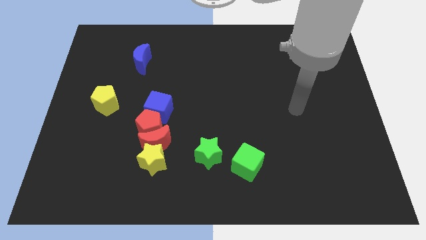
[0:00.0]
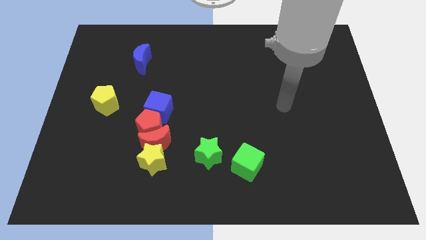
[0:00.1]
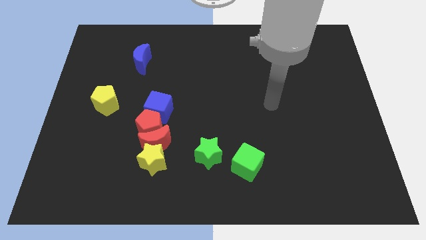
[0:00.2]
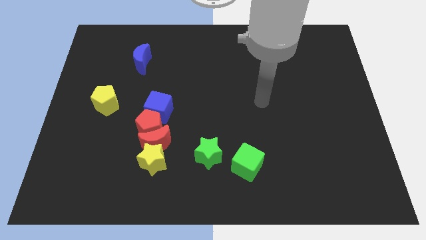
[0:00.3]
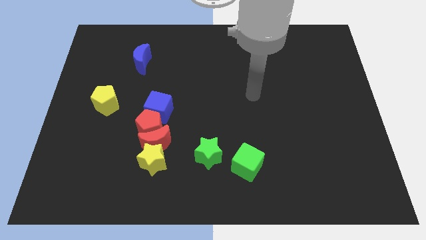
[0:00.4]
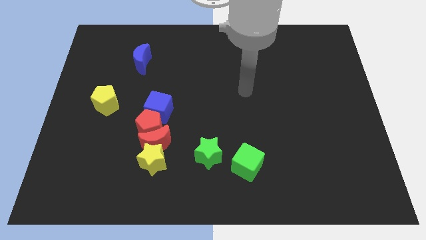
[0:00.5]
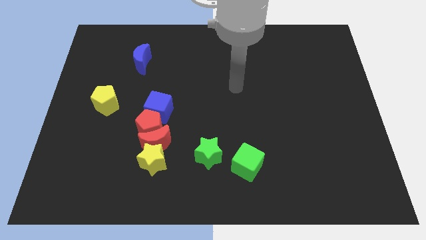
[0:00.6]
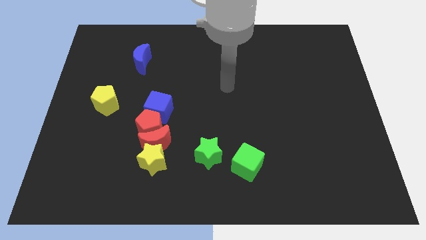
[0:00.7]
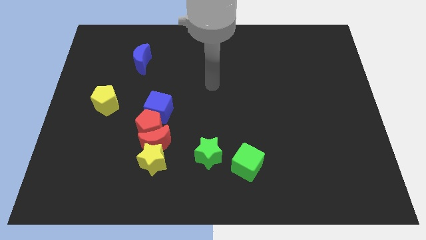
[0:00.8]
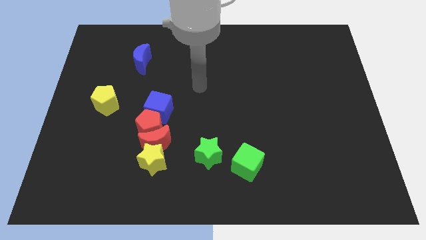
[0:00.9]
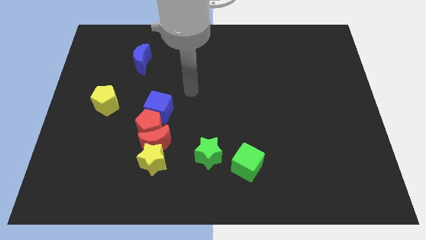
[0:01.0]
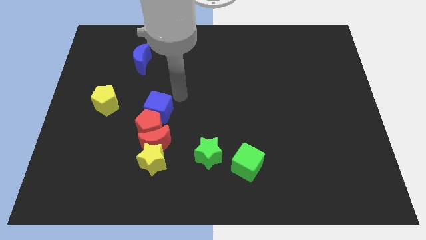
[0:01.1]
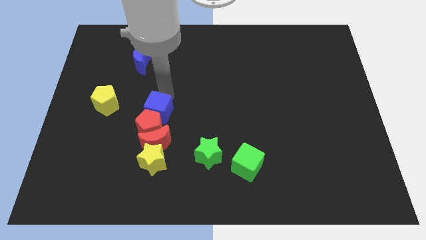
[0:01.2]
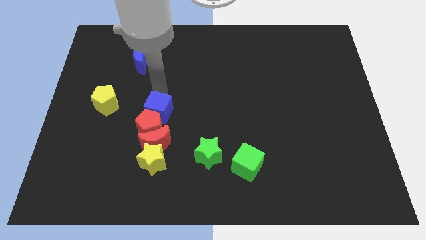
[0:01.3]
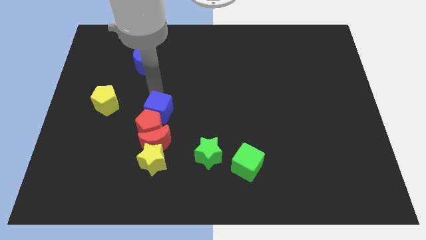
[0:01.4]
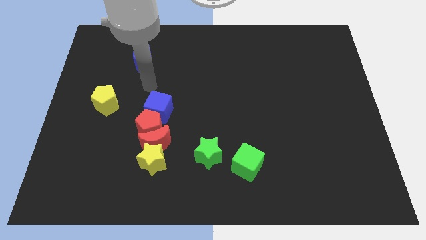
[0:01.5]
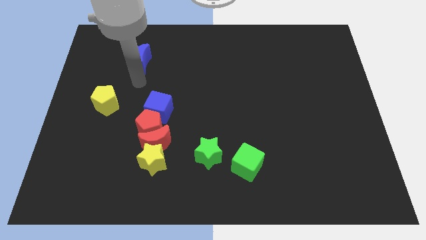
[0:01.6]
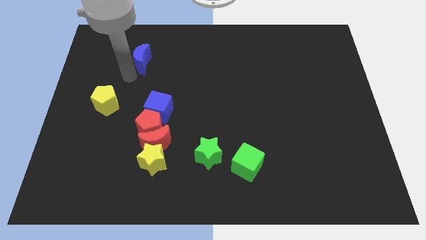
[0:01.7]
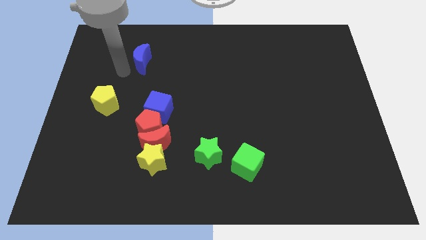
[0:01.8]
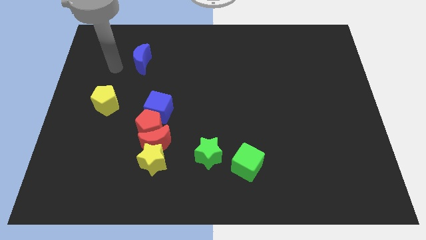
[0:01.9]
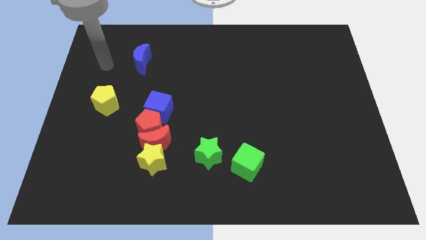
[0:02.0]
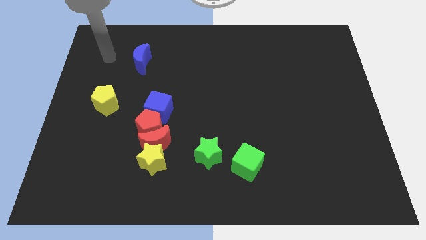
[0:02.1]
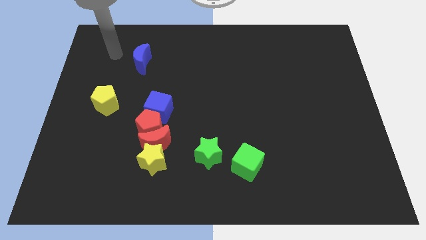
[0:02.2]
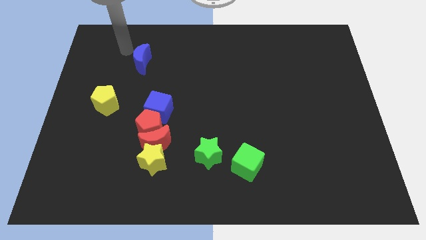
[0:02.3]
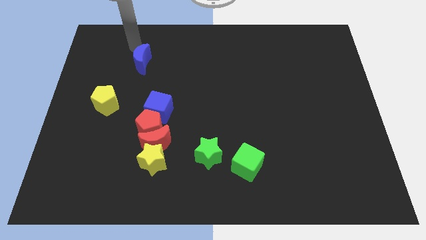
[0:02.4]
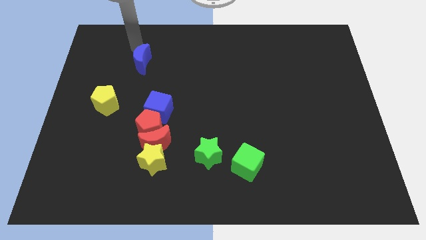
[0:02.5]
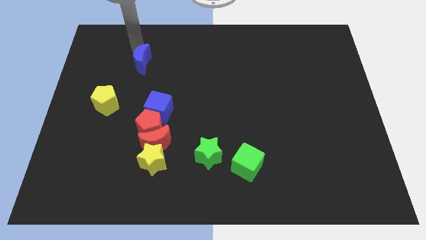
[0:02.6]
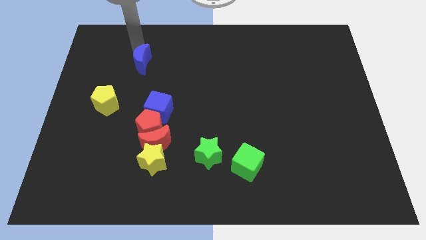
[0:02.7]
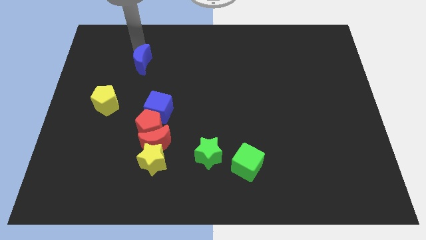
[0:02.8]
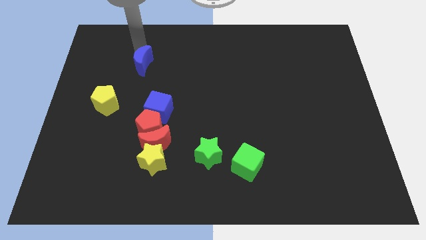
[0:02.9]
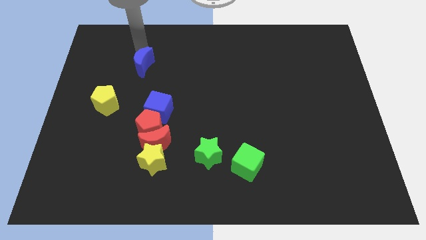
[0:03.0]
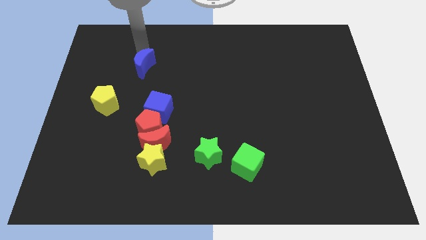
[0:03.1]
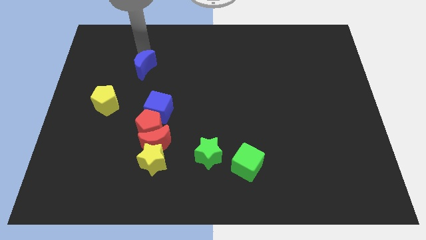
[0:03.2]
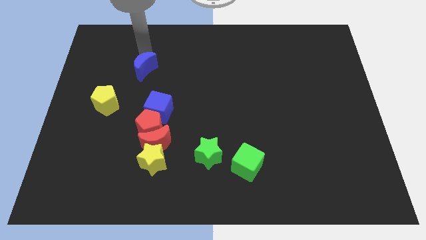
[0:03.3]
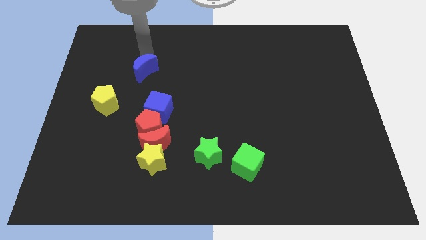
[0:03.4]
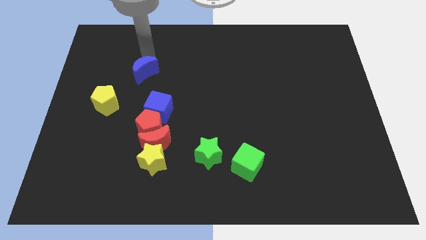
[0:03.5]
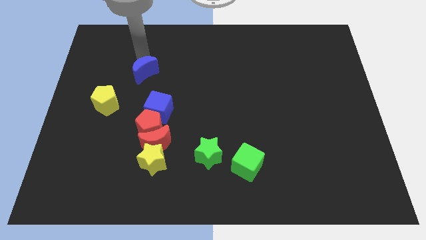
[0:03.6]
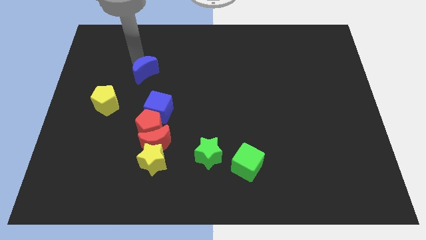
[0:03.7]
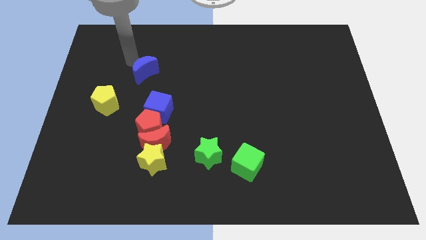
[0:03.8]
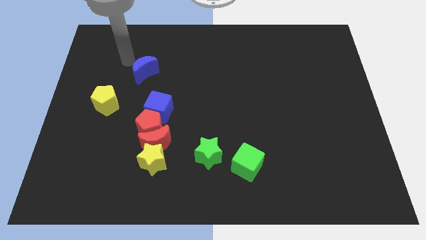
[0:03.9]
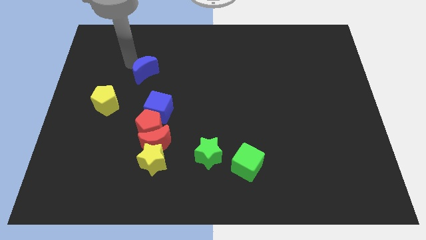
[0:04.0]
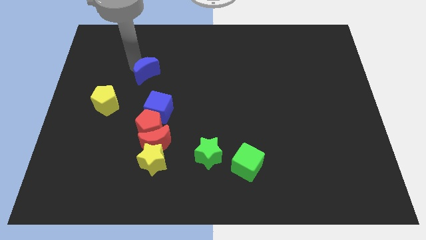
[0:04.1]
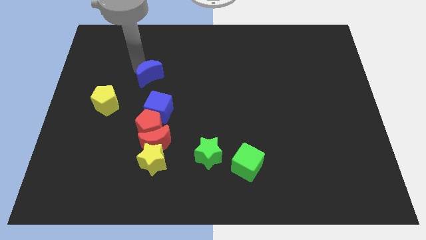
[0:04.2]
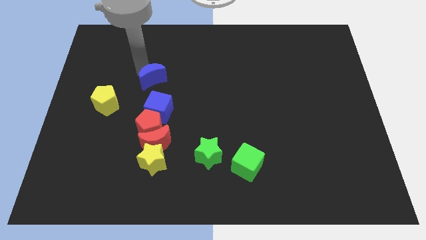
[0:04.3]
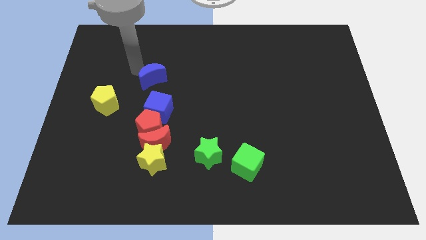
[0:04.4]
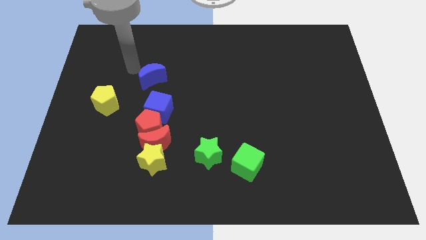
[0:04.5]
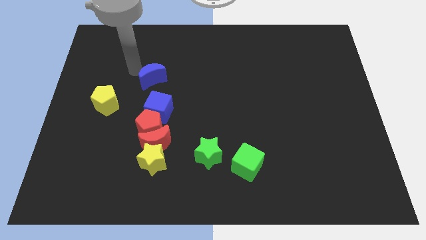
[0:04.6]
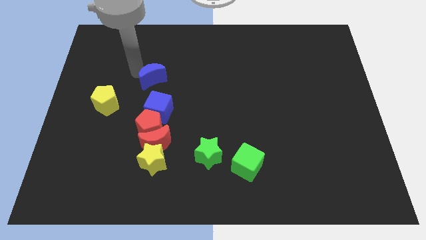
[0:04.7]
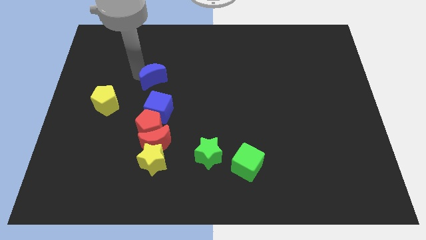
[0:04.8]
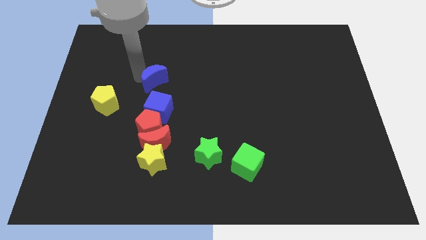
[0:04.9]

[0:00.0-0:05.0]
push the blue moon a little bit down and to the right

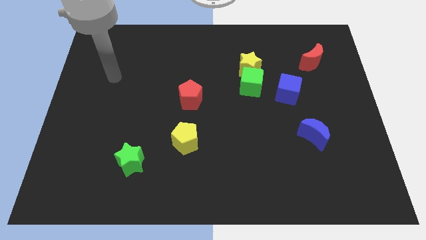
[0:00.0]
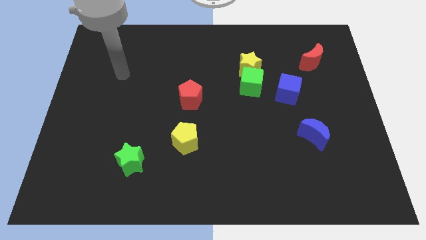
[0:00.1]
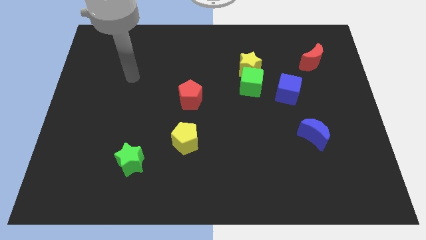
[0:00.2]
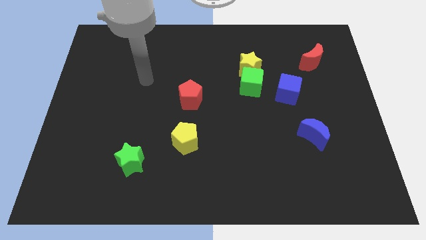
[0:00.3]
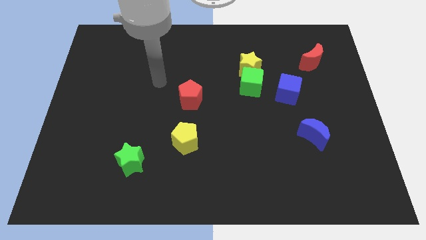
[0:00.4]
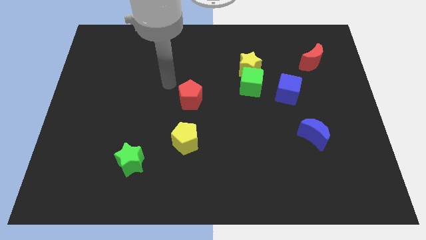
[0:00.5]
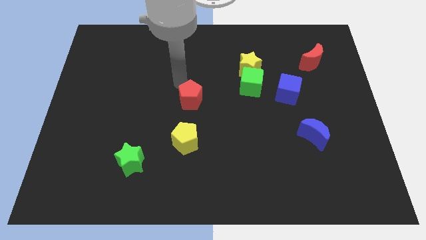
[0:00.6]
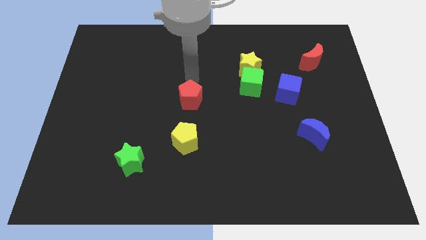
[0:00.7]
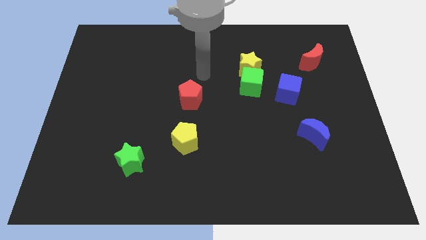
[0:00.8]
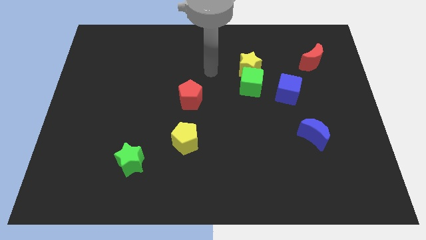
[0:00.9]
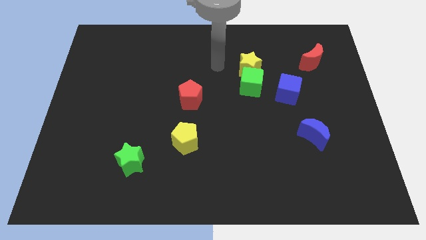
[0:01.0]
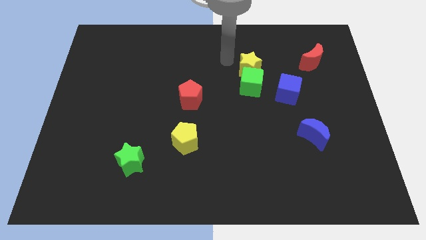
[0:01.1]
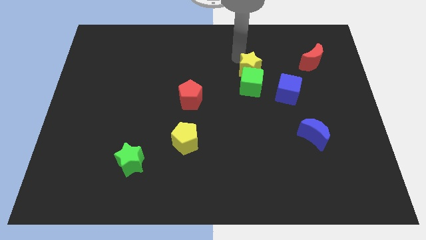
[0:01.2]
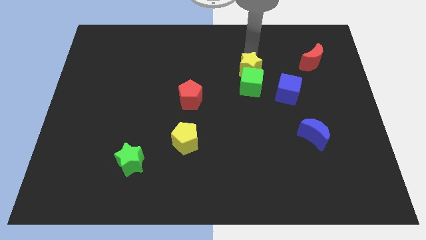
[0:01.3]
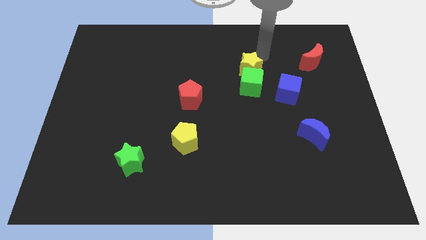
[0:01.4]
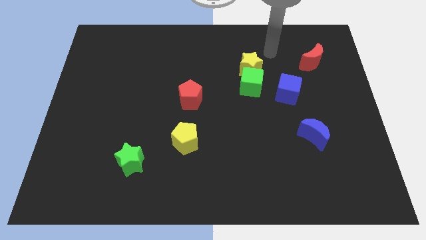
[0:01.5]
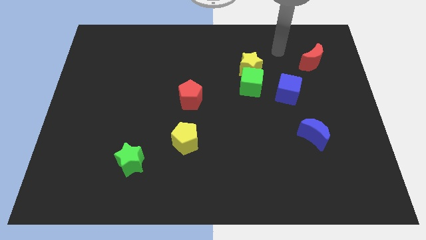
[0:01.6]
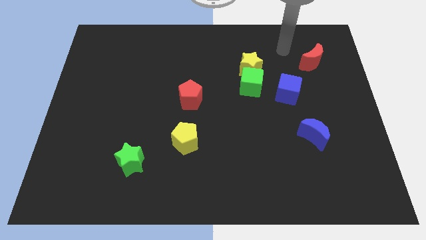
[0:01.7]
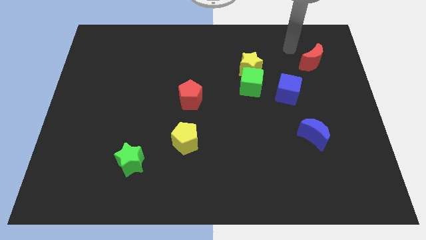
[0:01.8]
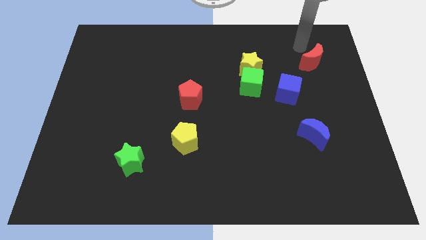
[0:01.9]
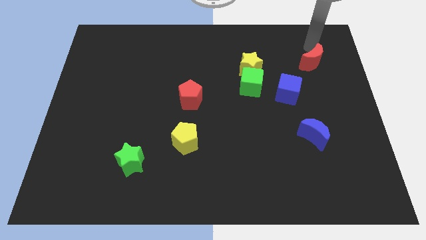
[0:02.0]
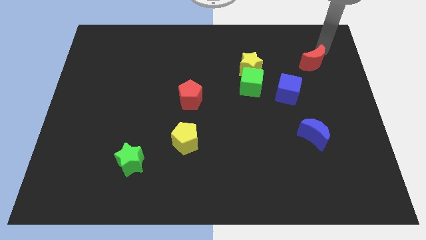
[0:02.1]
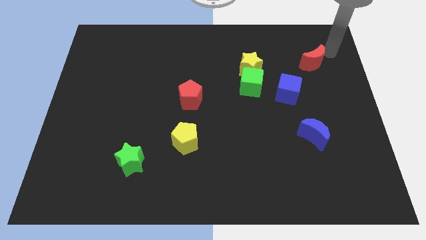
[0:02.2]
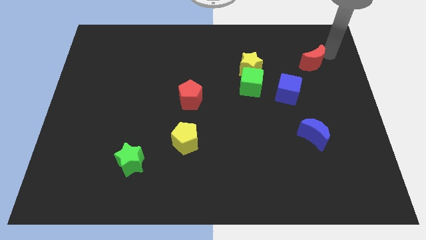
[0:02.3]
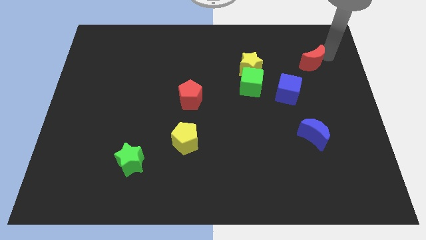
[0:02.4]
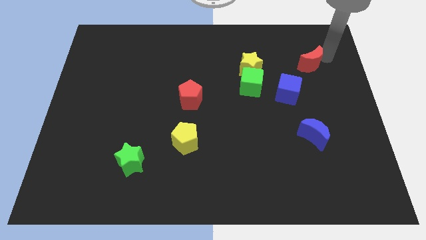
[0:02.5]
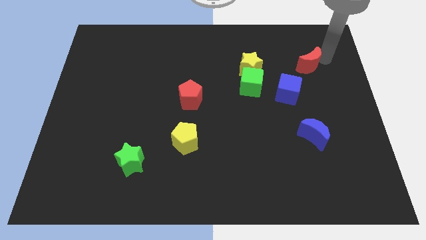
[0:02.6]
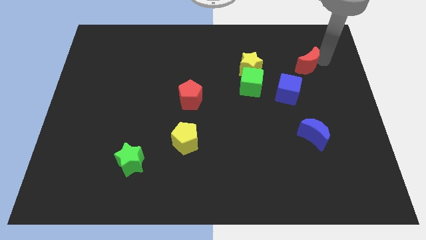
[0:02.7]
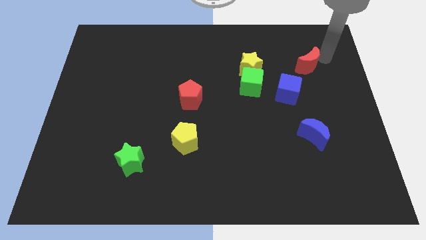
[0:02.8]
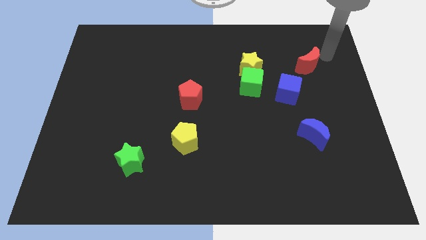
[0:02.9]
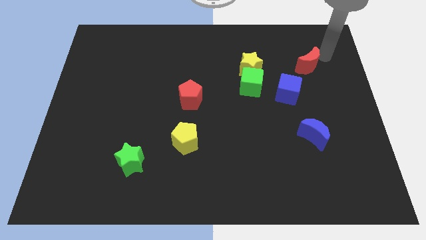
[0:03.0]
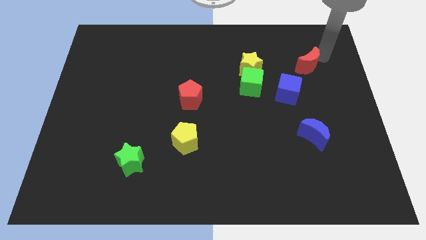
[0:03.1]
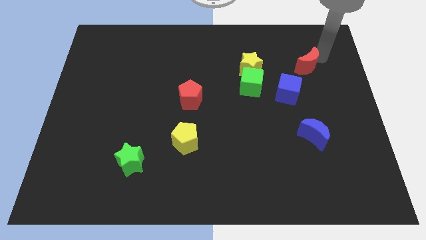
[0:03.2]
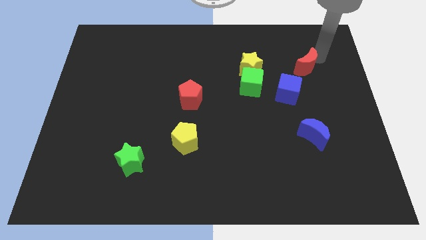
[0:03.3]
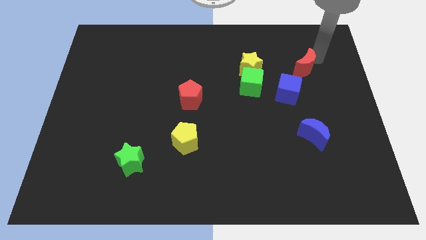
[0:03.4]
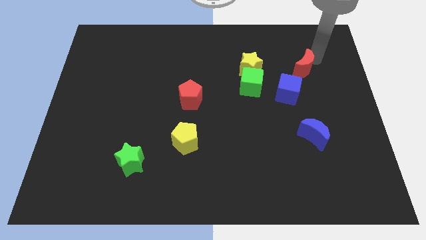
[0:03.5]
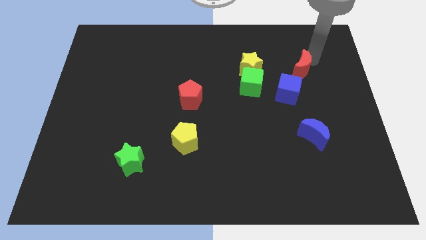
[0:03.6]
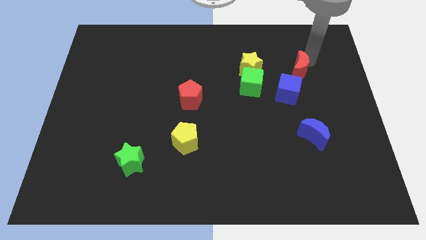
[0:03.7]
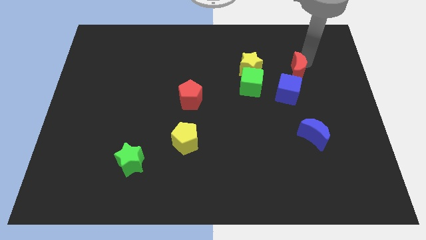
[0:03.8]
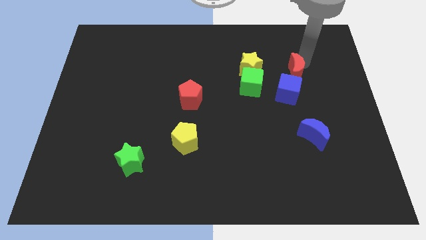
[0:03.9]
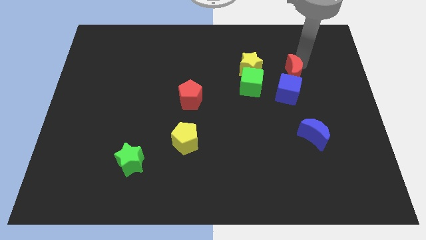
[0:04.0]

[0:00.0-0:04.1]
slide the red moon down and to the left diagonally a little bit
